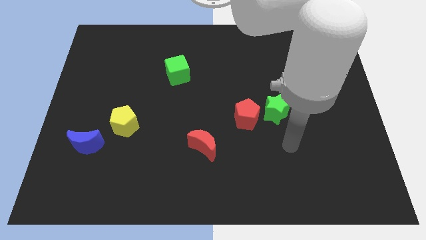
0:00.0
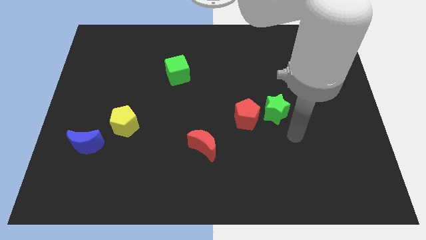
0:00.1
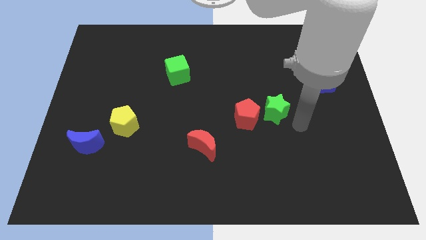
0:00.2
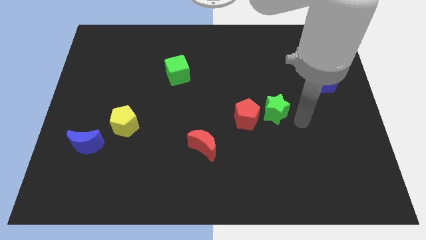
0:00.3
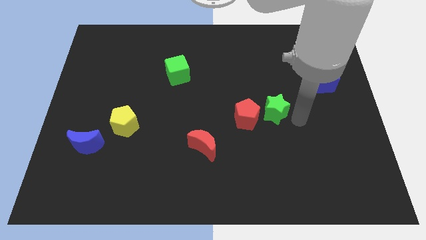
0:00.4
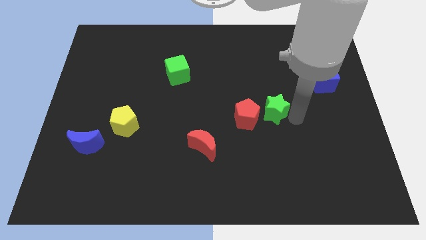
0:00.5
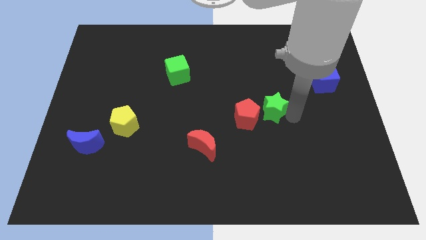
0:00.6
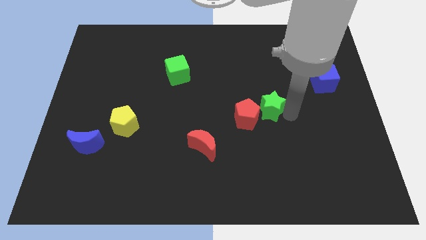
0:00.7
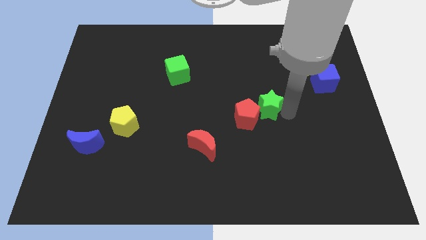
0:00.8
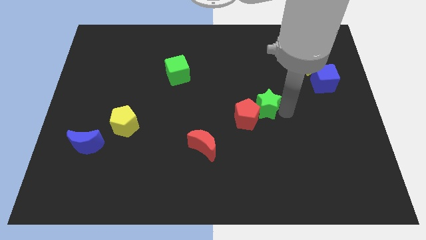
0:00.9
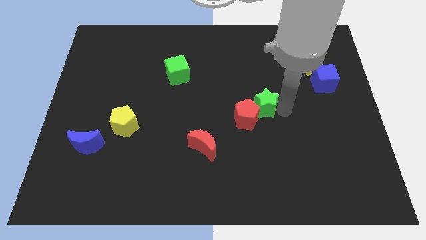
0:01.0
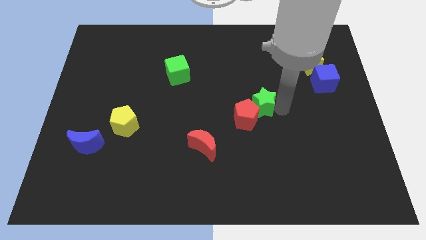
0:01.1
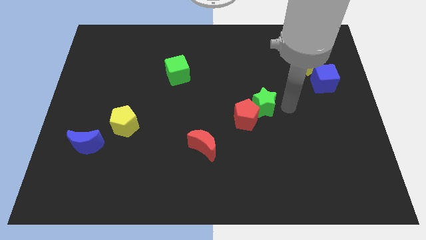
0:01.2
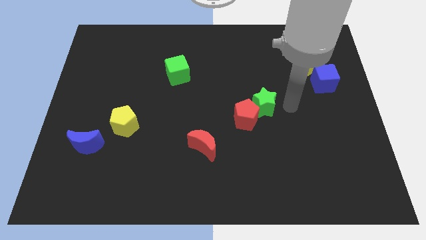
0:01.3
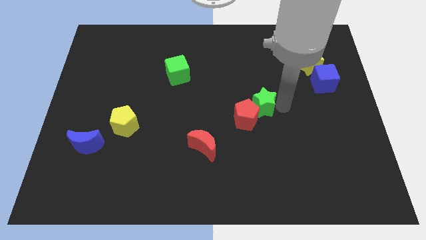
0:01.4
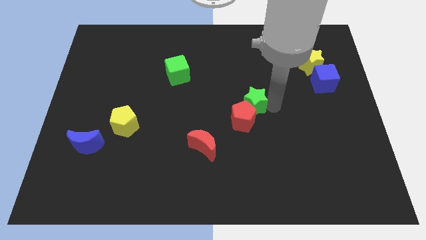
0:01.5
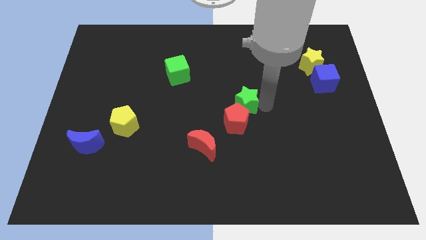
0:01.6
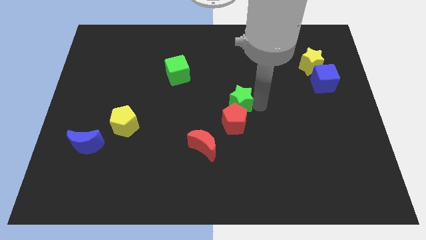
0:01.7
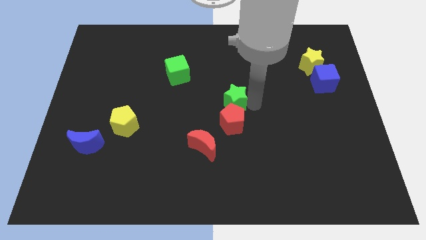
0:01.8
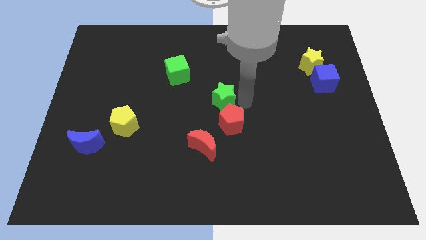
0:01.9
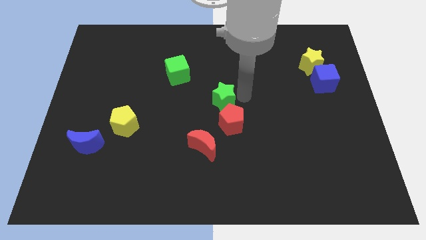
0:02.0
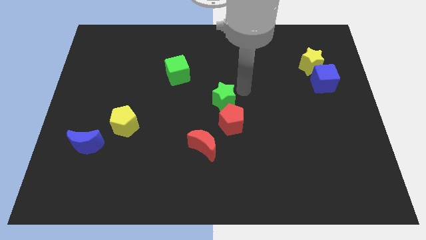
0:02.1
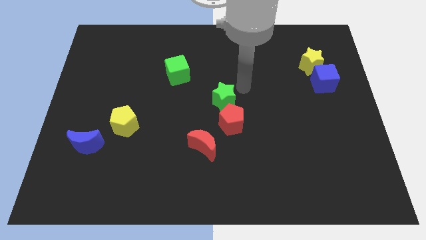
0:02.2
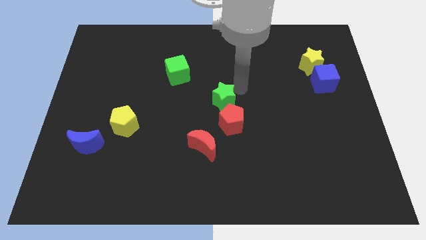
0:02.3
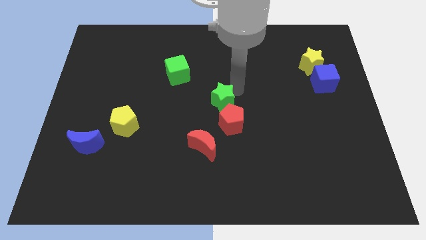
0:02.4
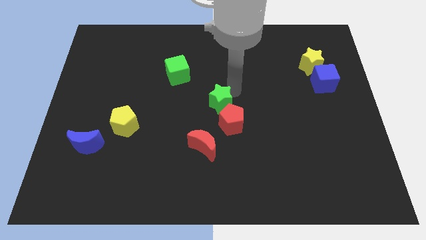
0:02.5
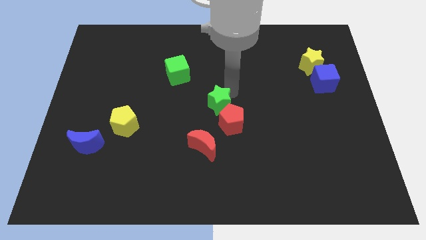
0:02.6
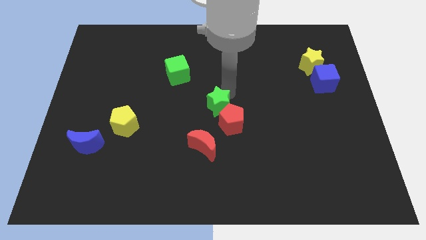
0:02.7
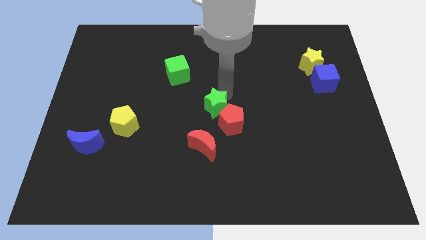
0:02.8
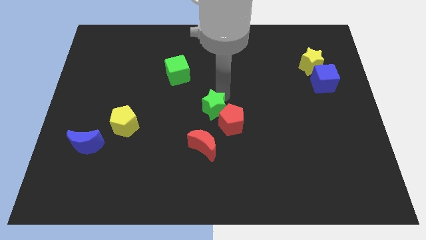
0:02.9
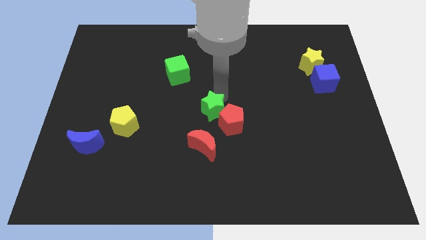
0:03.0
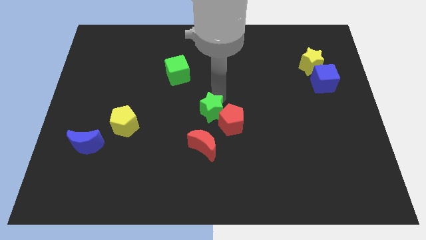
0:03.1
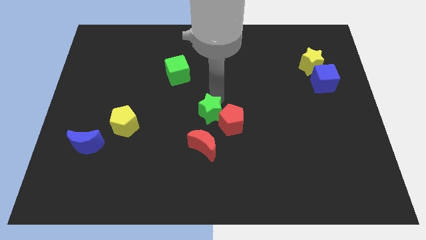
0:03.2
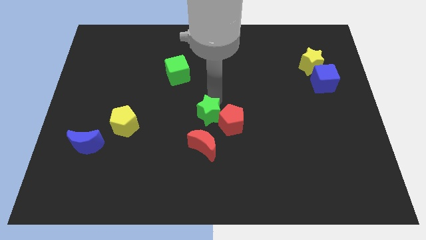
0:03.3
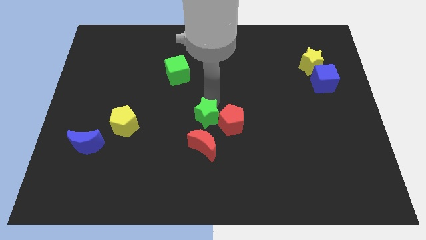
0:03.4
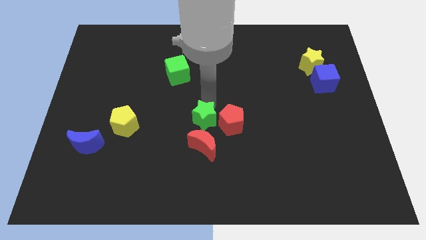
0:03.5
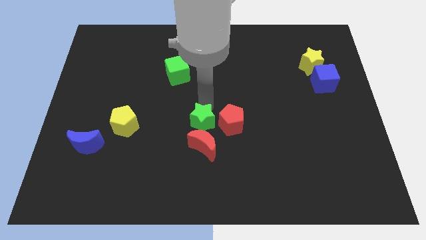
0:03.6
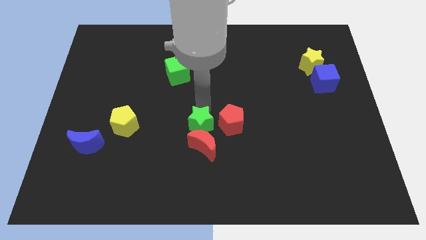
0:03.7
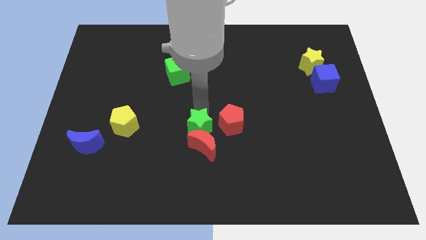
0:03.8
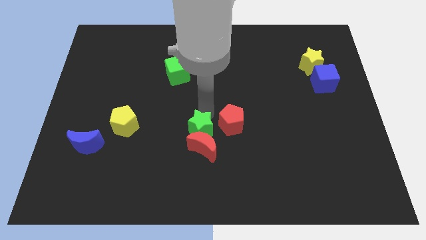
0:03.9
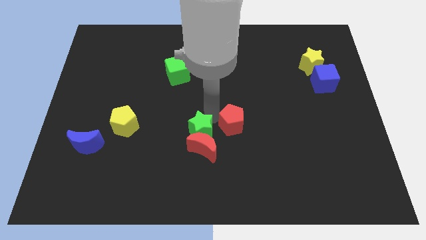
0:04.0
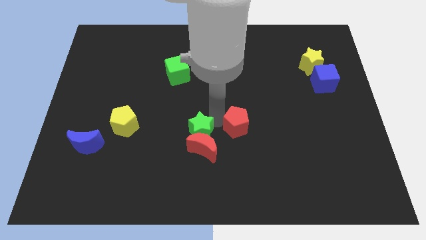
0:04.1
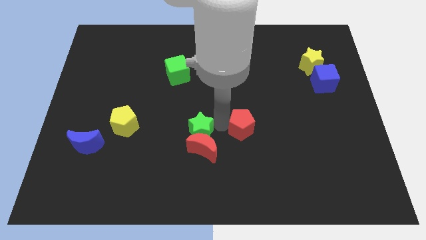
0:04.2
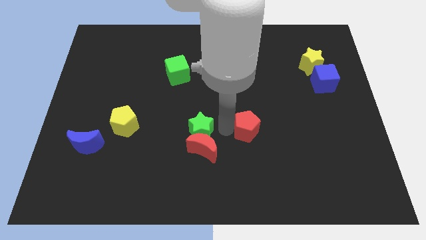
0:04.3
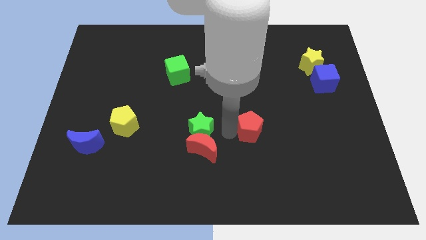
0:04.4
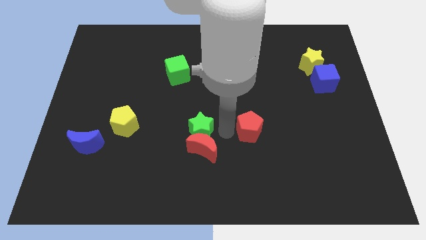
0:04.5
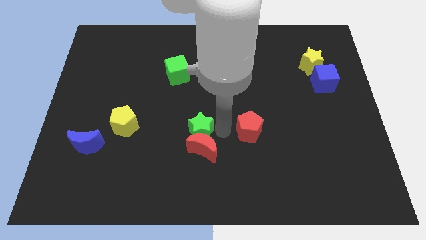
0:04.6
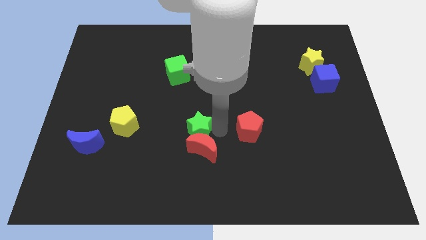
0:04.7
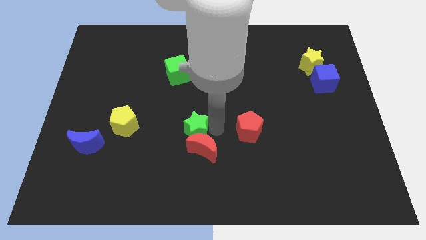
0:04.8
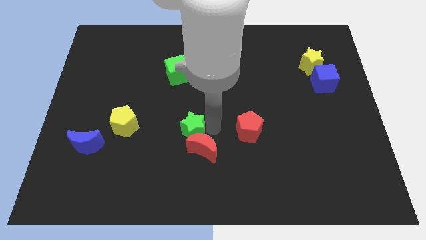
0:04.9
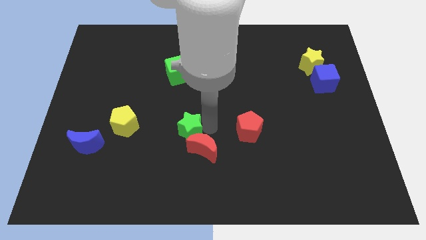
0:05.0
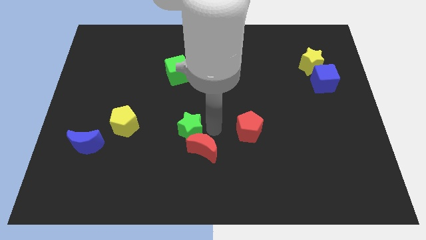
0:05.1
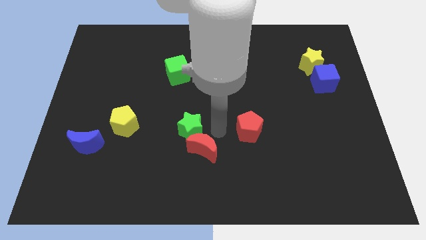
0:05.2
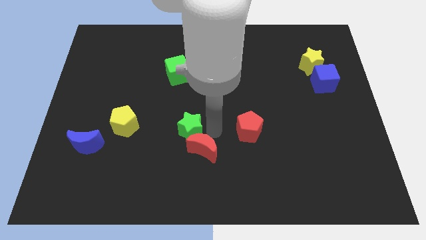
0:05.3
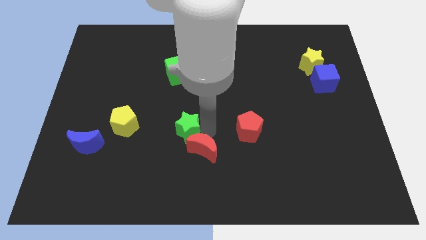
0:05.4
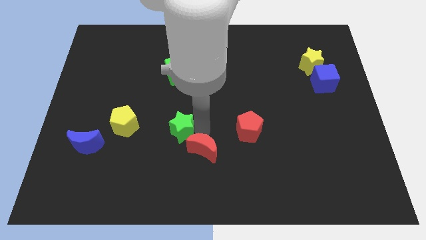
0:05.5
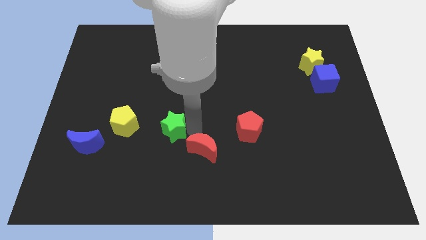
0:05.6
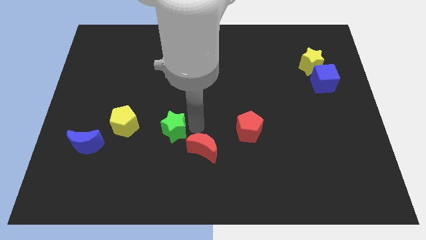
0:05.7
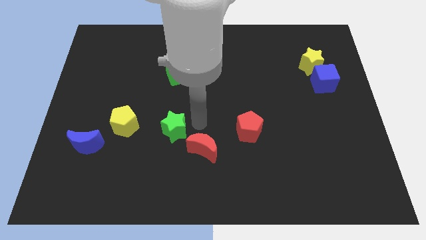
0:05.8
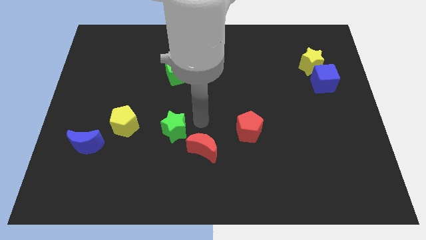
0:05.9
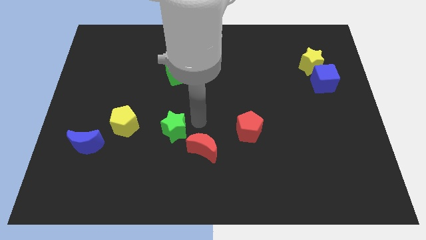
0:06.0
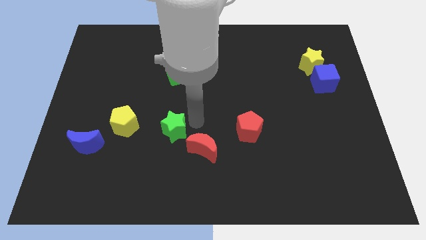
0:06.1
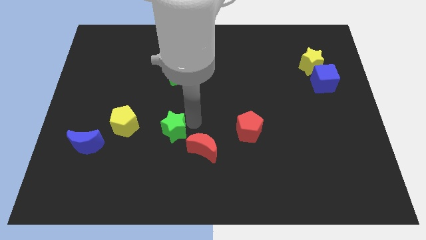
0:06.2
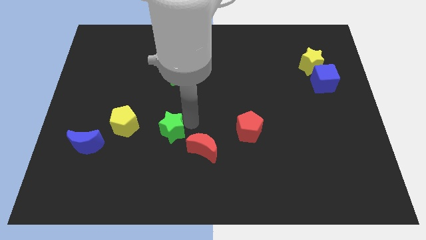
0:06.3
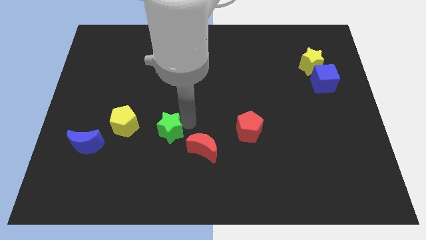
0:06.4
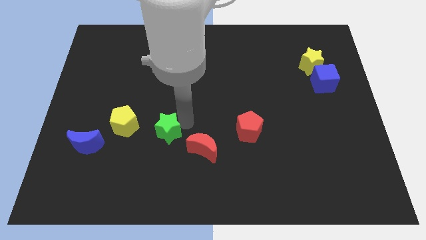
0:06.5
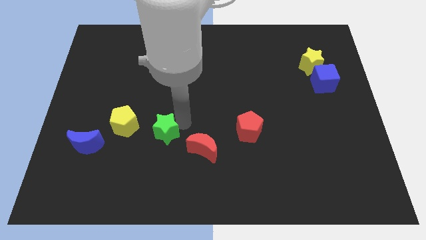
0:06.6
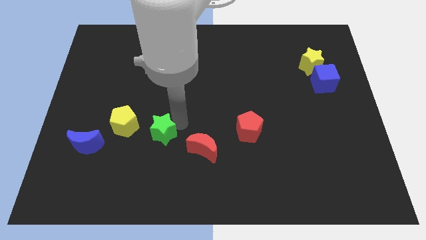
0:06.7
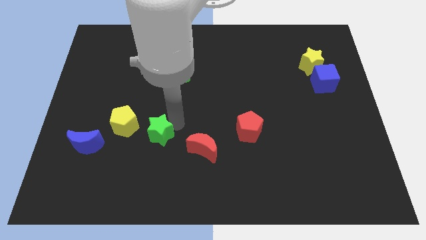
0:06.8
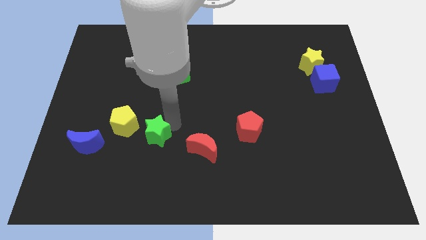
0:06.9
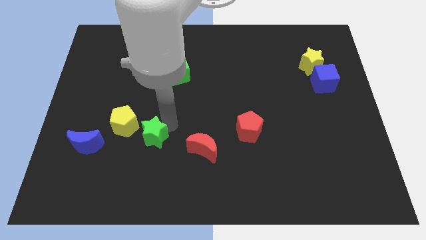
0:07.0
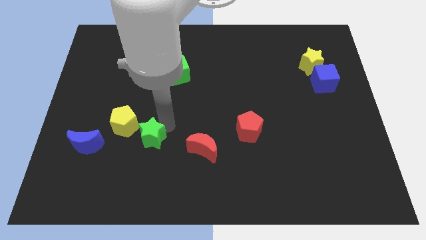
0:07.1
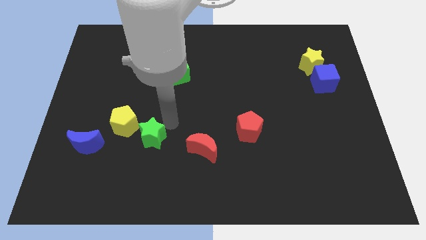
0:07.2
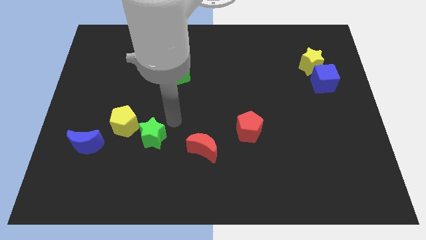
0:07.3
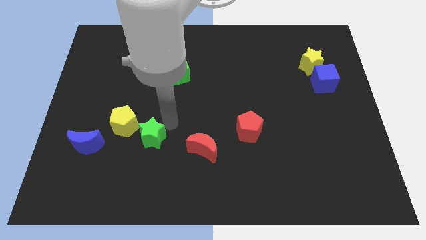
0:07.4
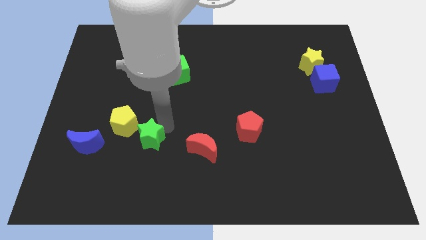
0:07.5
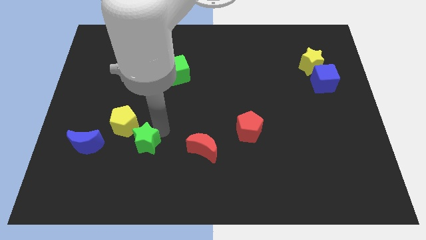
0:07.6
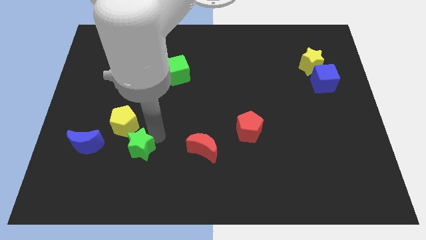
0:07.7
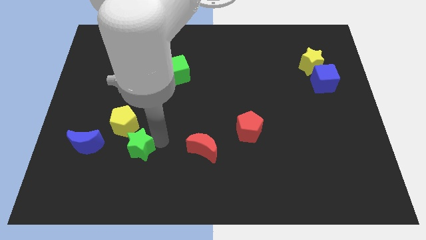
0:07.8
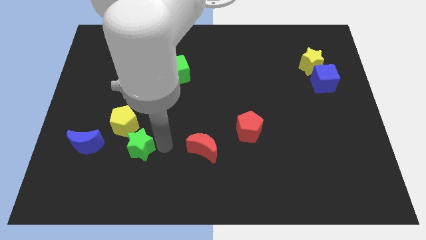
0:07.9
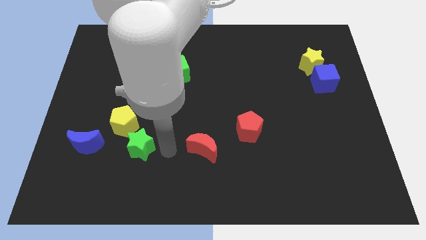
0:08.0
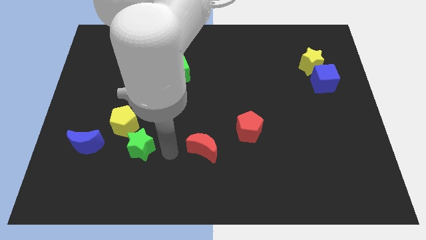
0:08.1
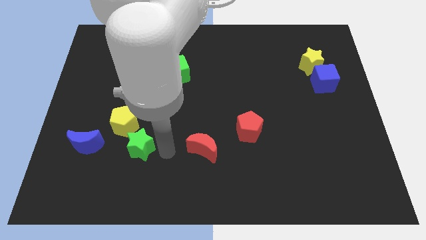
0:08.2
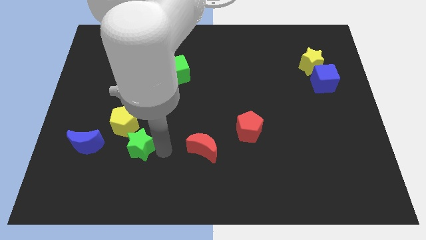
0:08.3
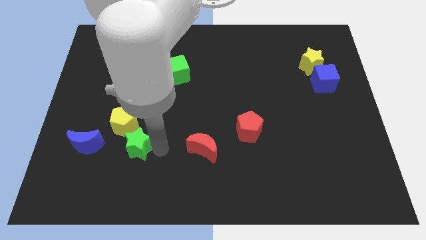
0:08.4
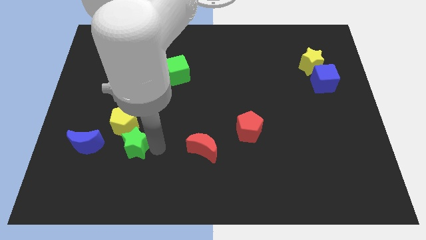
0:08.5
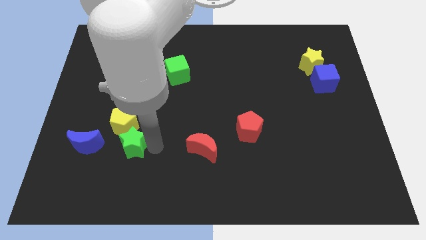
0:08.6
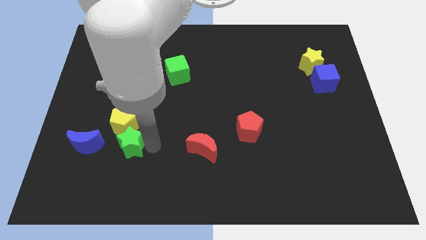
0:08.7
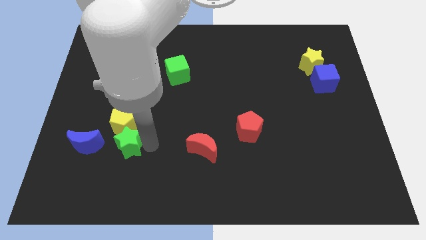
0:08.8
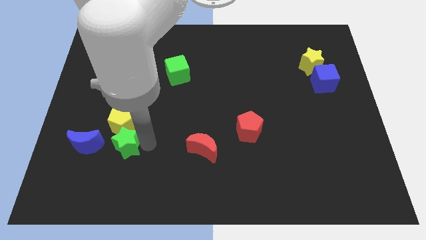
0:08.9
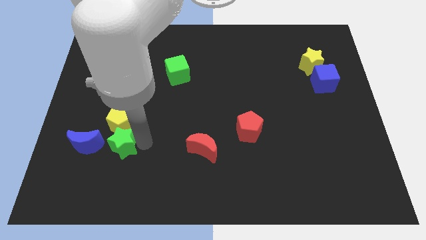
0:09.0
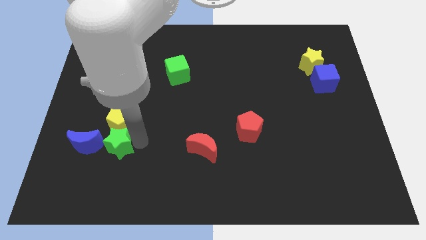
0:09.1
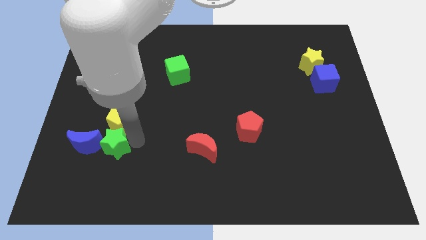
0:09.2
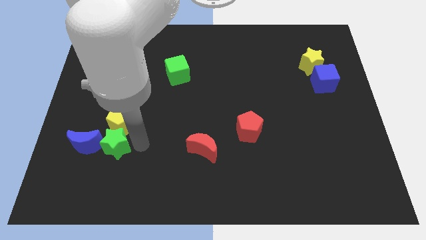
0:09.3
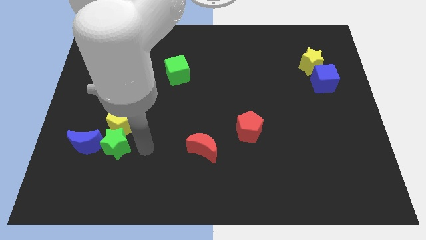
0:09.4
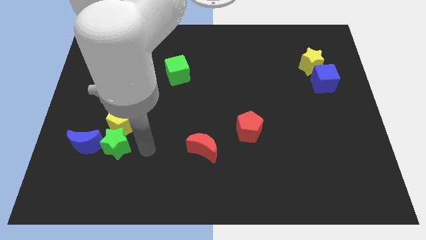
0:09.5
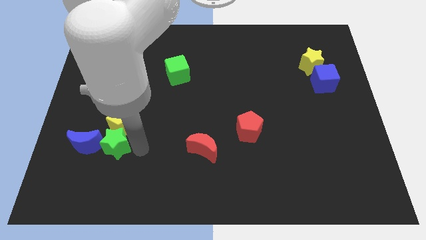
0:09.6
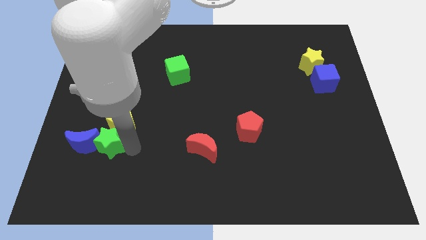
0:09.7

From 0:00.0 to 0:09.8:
put the green star close to the blue moon
